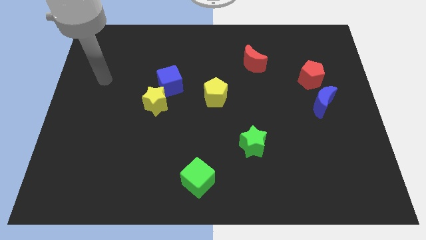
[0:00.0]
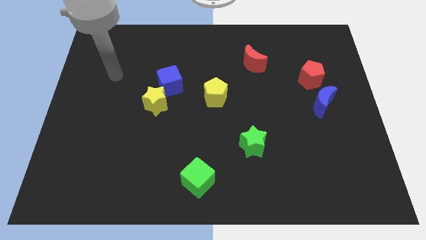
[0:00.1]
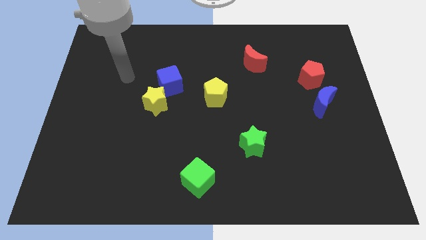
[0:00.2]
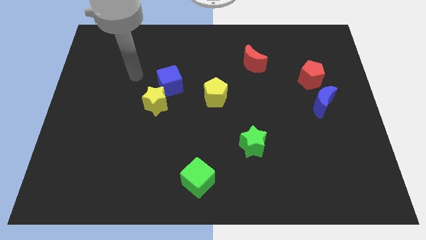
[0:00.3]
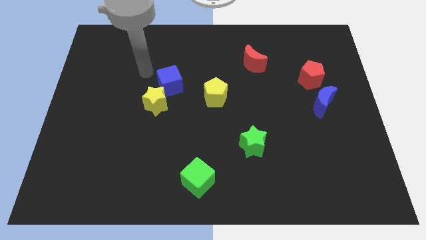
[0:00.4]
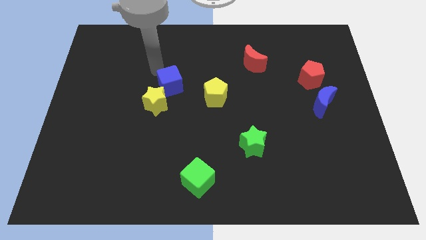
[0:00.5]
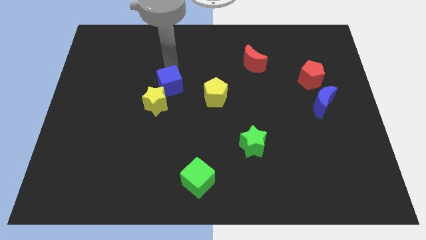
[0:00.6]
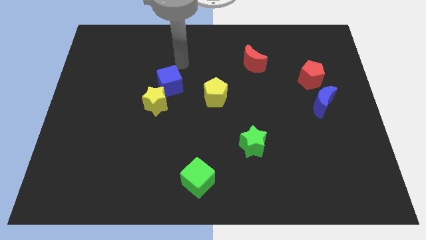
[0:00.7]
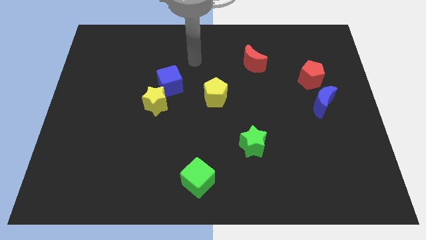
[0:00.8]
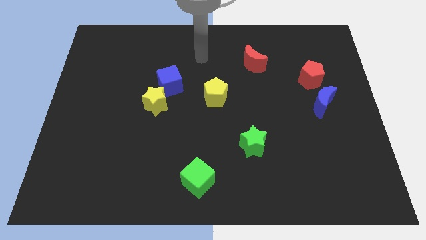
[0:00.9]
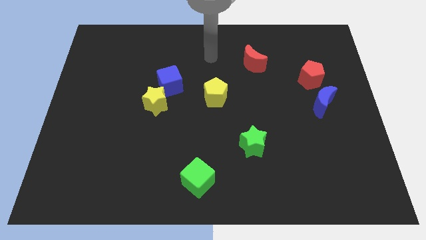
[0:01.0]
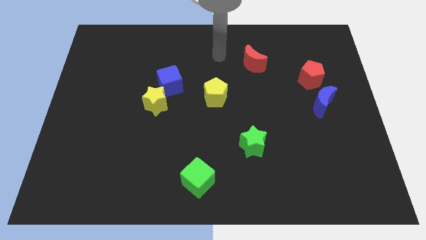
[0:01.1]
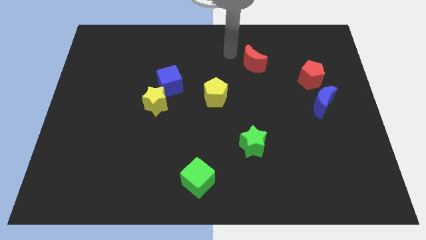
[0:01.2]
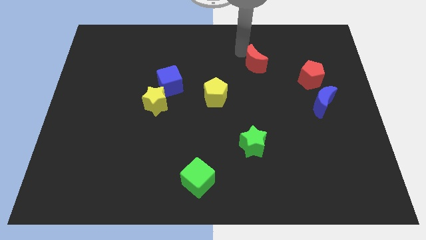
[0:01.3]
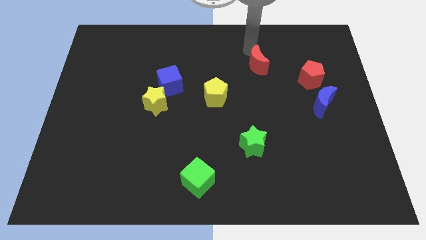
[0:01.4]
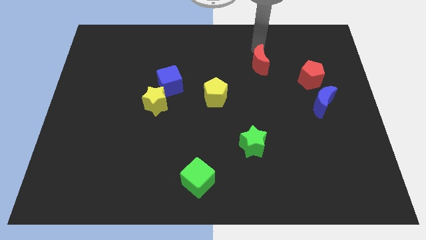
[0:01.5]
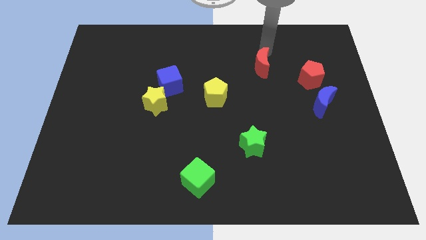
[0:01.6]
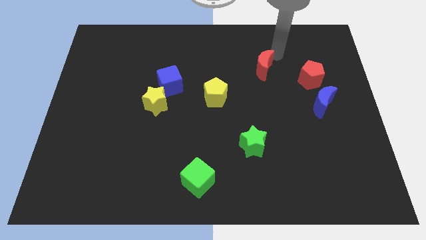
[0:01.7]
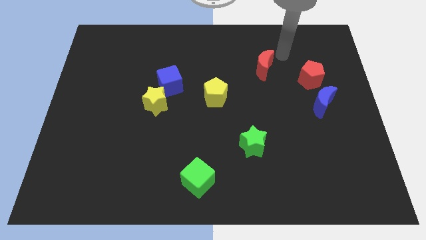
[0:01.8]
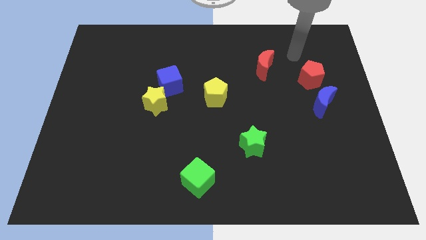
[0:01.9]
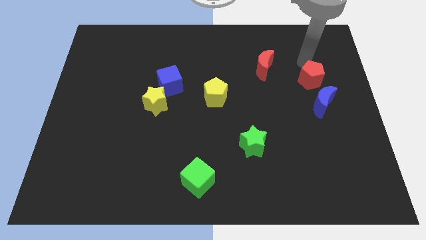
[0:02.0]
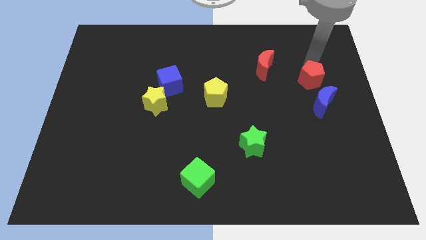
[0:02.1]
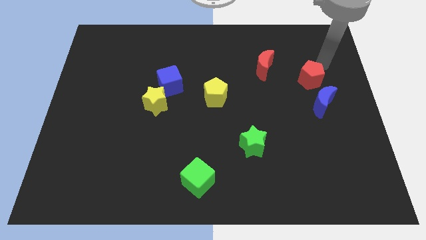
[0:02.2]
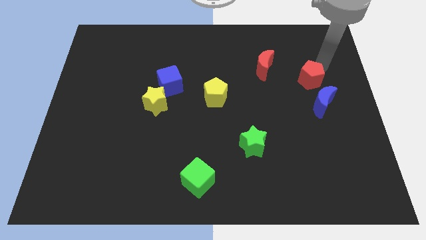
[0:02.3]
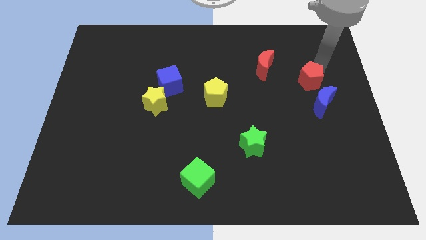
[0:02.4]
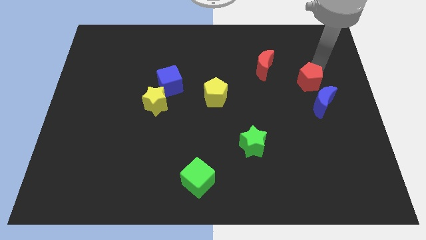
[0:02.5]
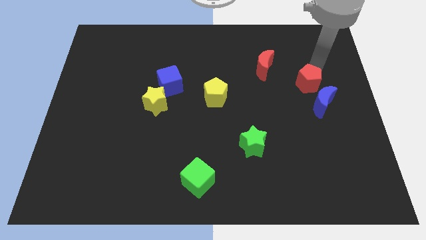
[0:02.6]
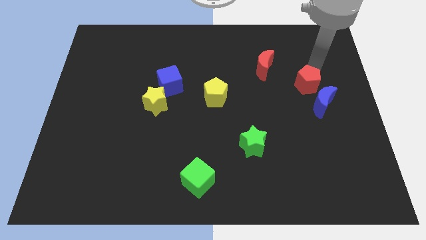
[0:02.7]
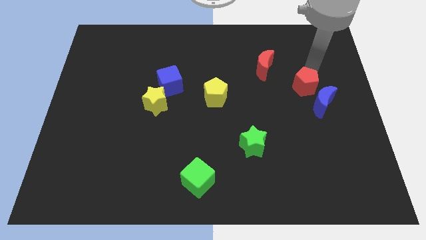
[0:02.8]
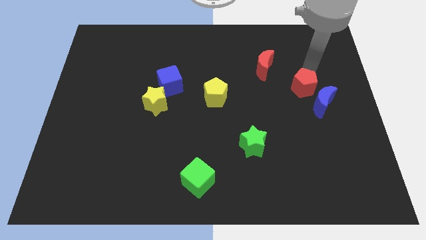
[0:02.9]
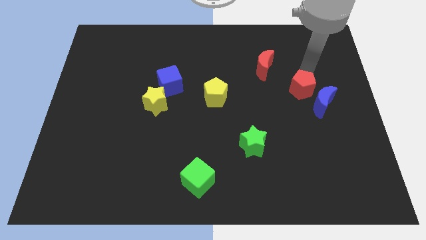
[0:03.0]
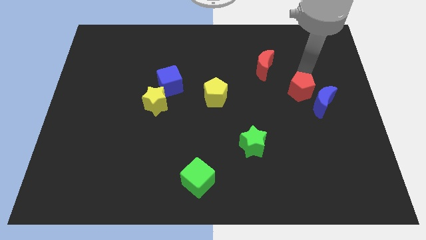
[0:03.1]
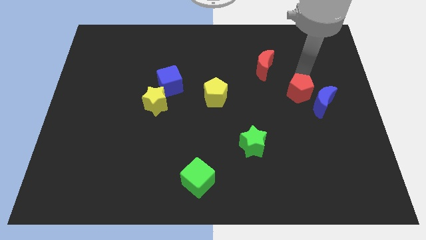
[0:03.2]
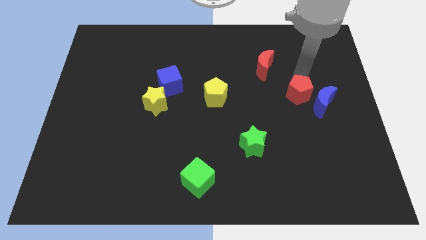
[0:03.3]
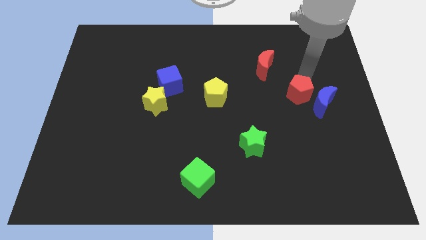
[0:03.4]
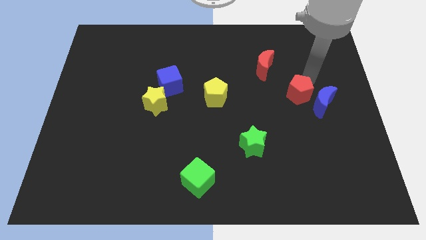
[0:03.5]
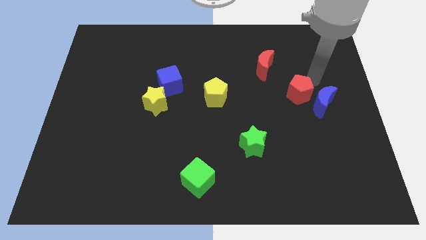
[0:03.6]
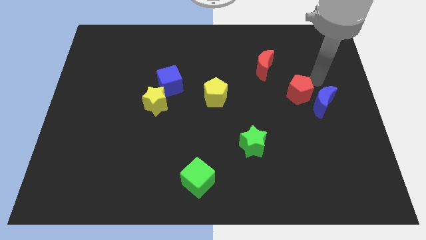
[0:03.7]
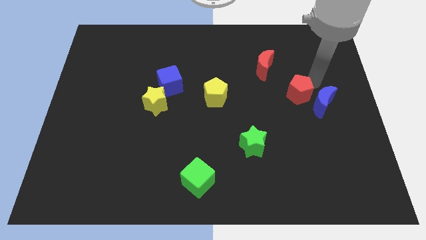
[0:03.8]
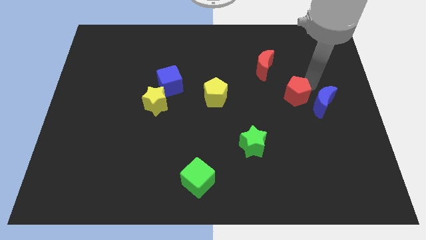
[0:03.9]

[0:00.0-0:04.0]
move the red pentagon diagonally down and left a little

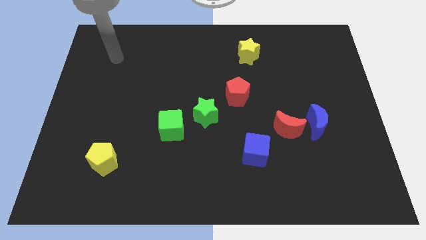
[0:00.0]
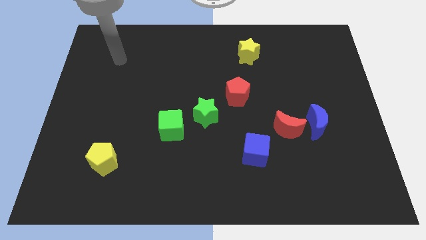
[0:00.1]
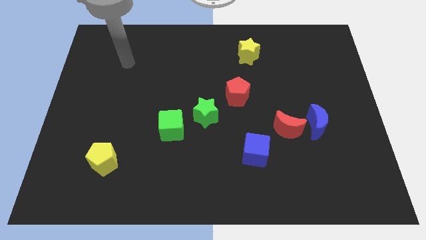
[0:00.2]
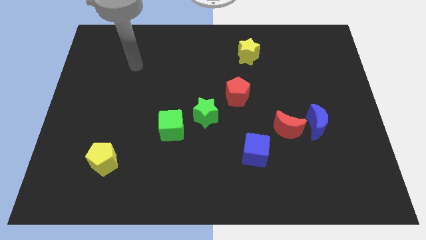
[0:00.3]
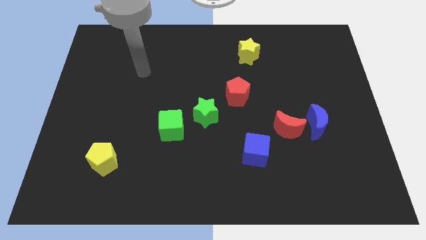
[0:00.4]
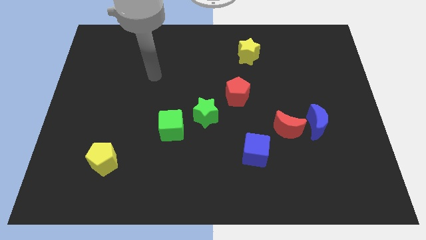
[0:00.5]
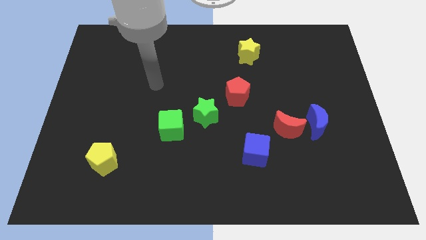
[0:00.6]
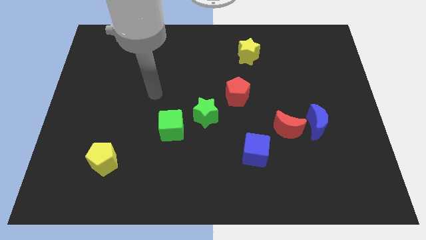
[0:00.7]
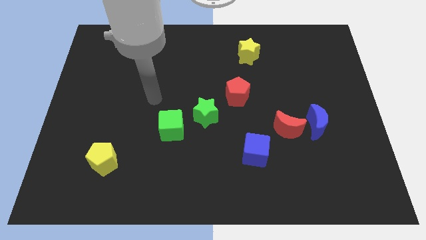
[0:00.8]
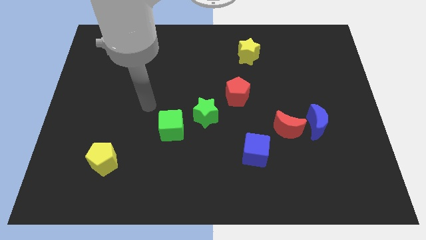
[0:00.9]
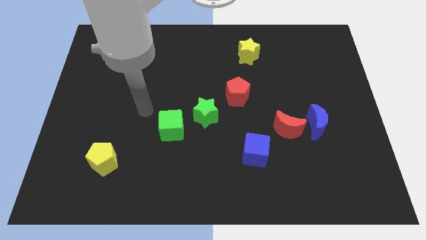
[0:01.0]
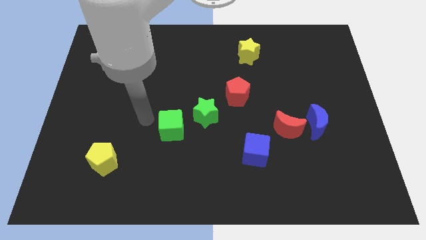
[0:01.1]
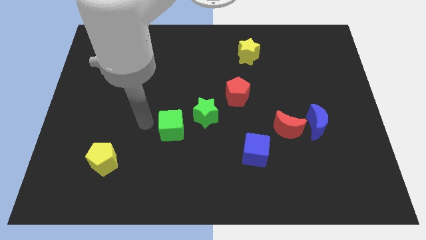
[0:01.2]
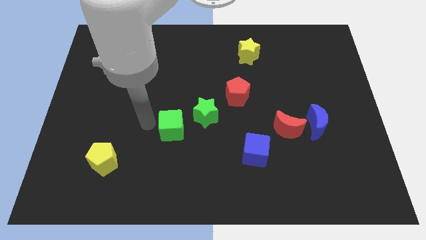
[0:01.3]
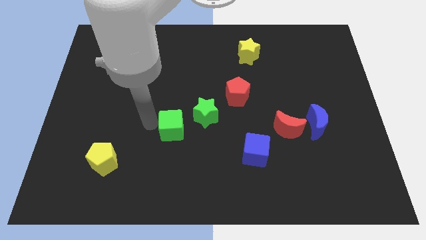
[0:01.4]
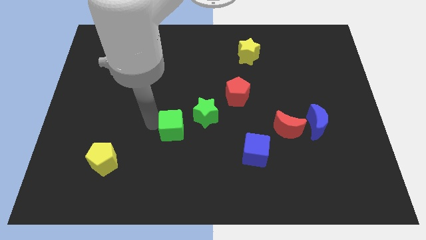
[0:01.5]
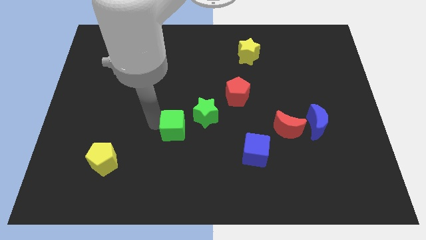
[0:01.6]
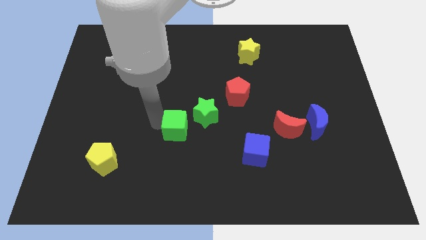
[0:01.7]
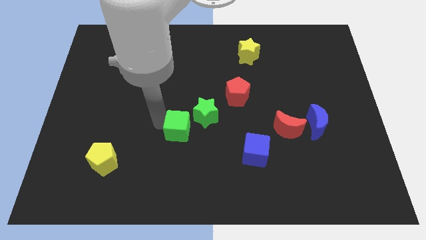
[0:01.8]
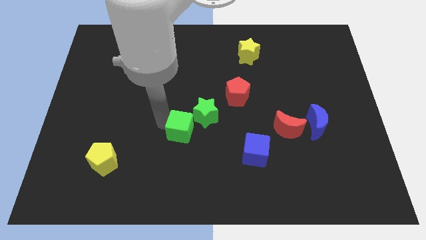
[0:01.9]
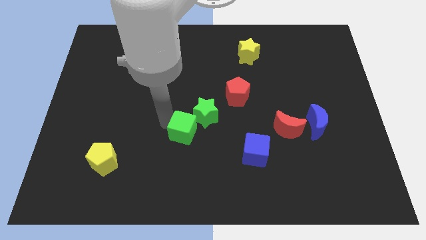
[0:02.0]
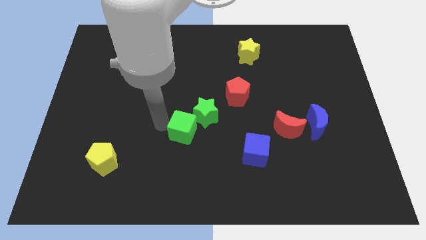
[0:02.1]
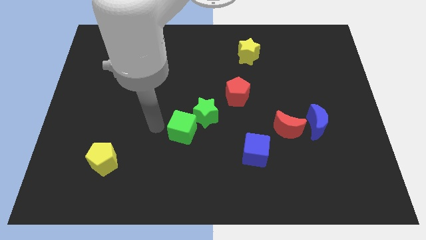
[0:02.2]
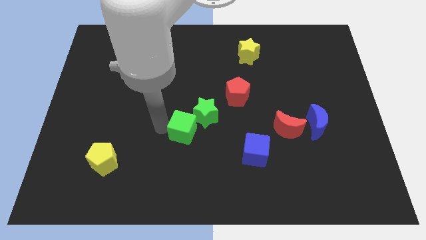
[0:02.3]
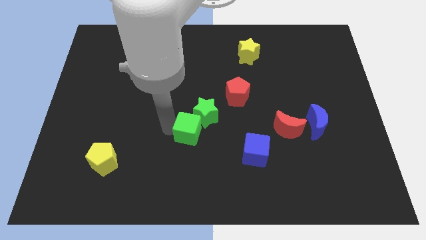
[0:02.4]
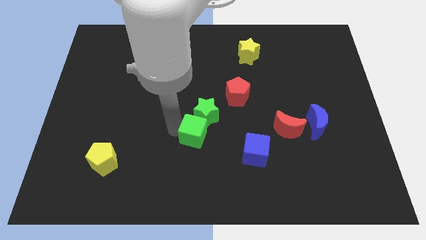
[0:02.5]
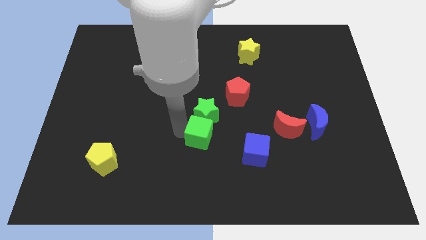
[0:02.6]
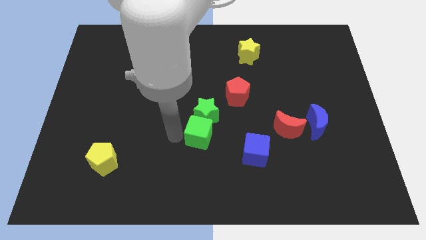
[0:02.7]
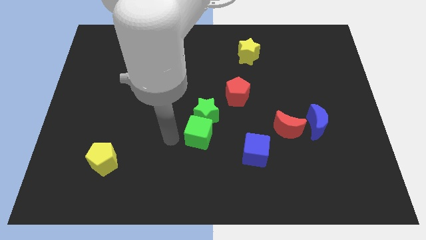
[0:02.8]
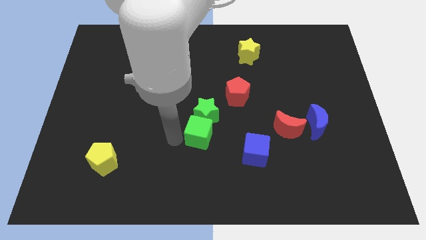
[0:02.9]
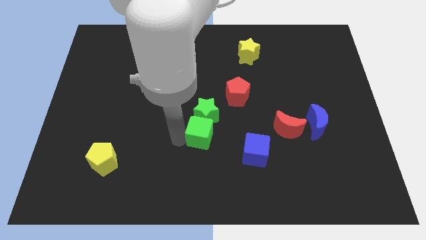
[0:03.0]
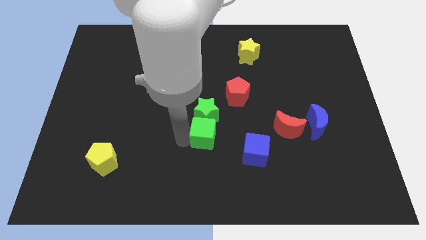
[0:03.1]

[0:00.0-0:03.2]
move the green cube to the right somewhat
